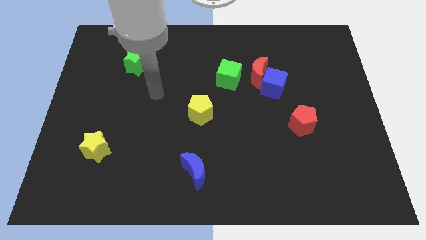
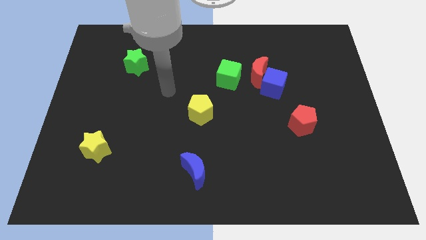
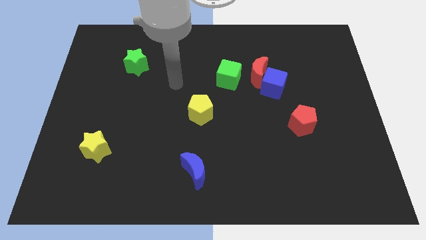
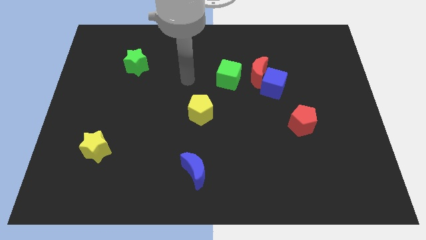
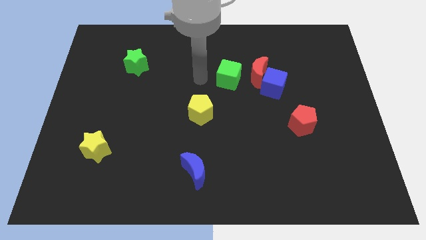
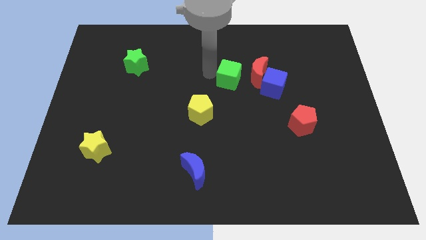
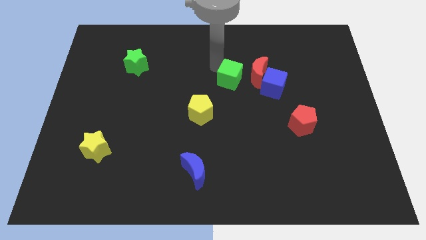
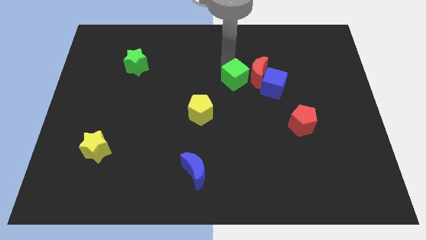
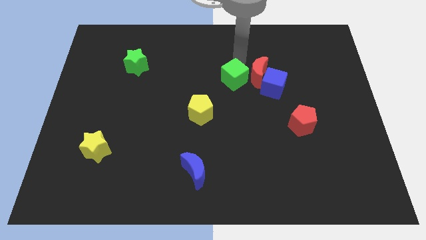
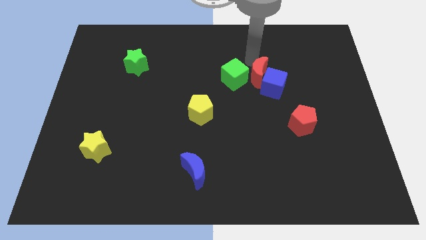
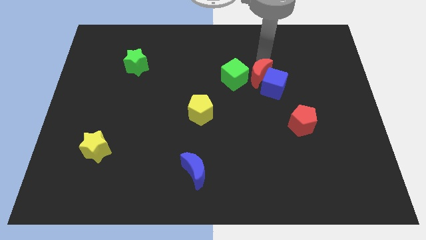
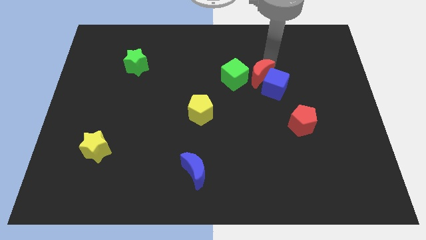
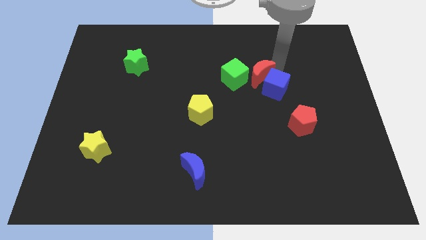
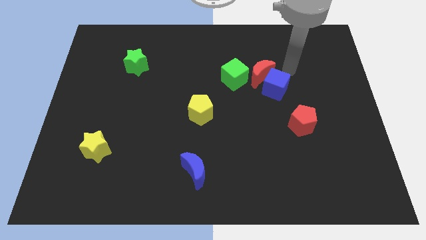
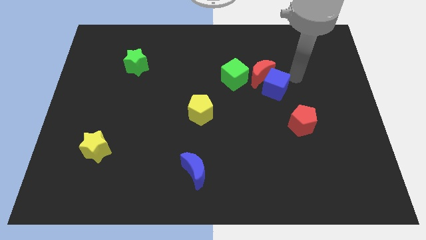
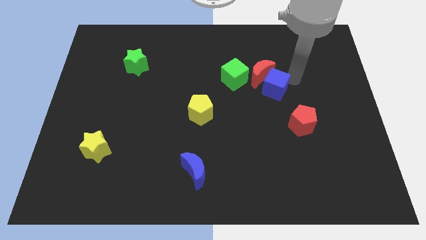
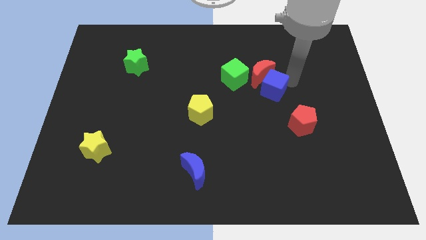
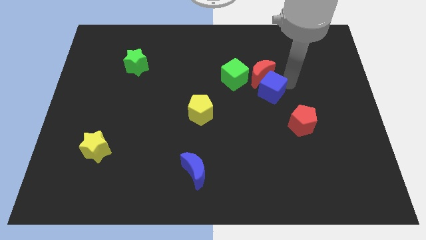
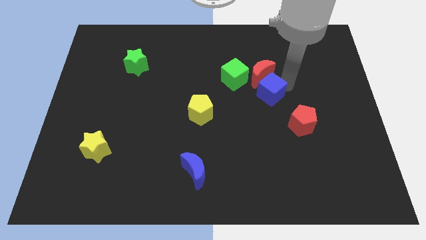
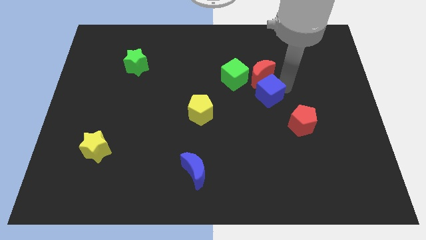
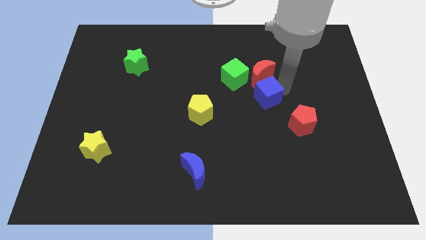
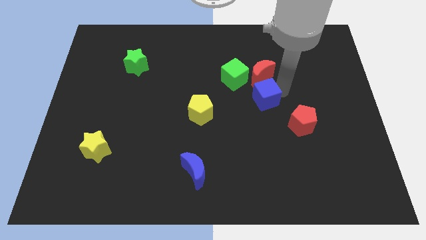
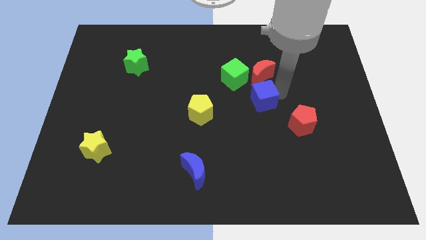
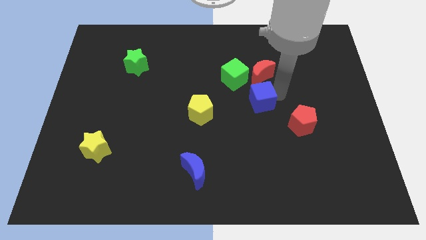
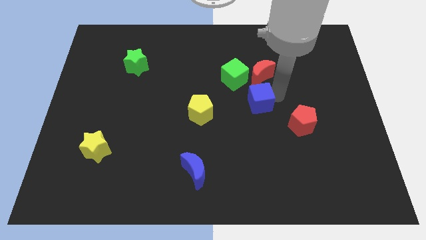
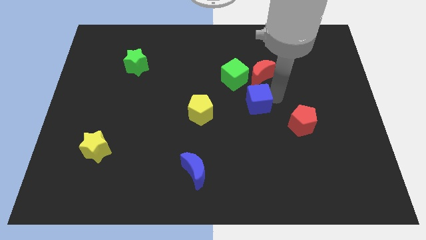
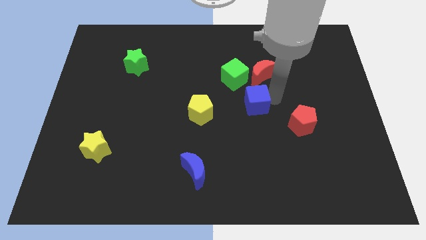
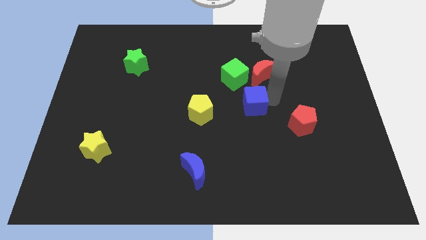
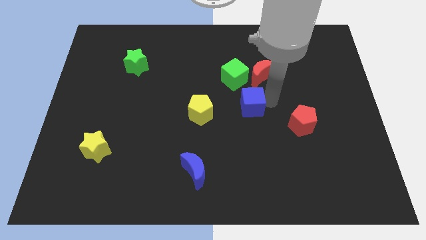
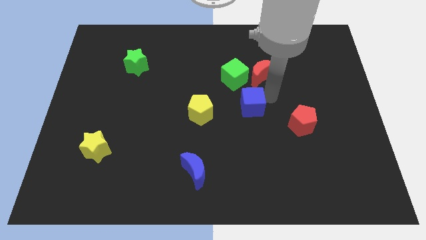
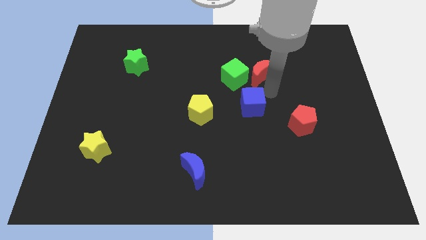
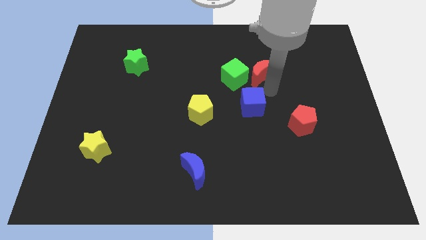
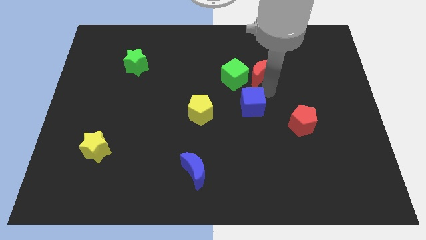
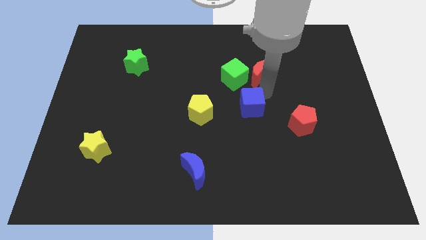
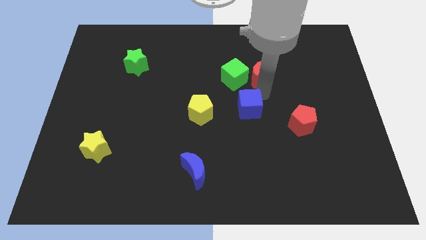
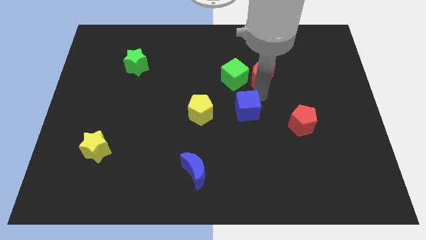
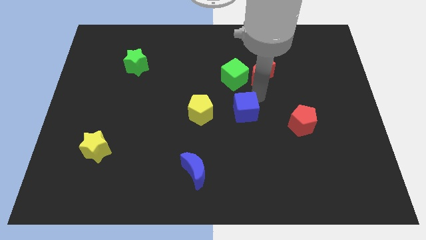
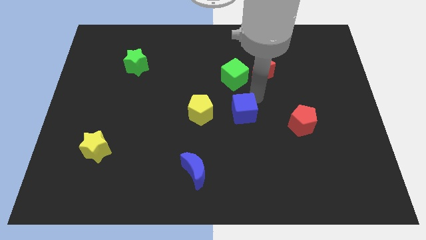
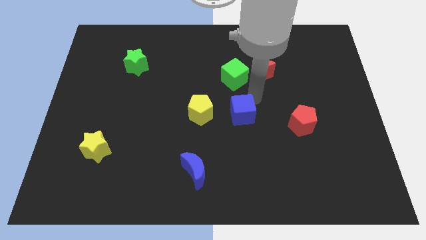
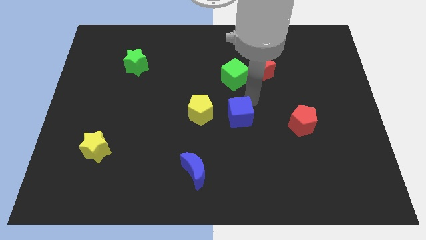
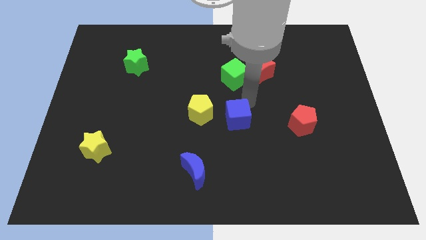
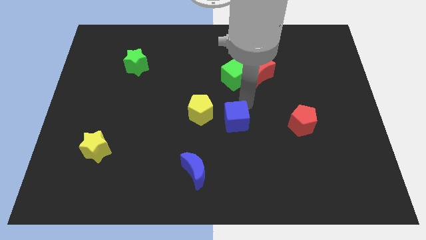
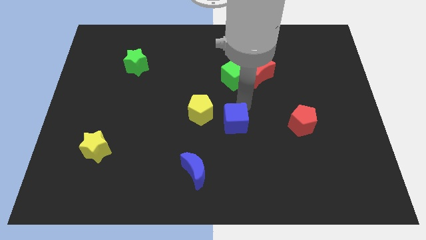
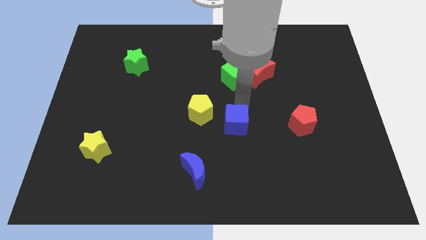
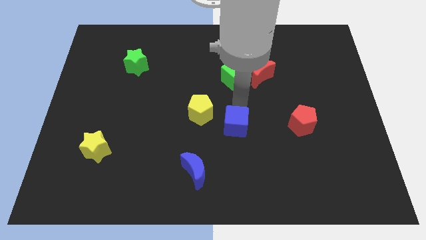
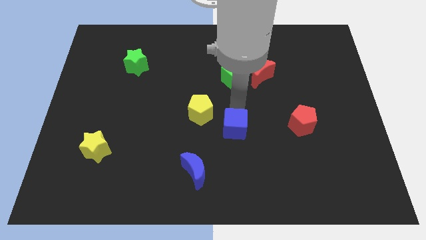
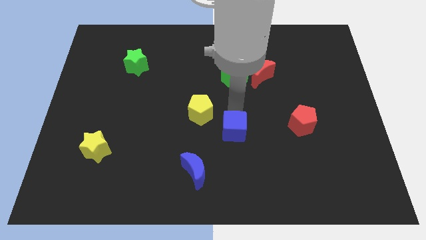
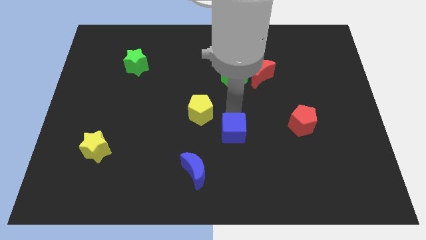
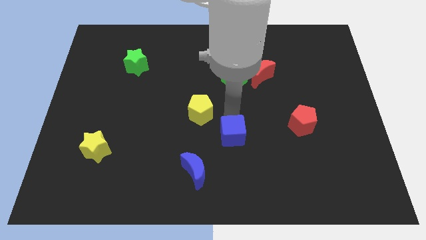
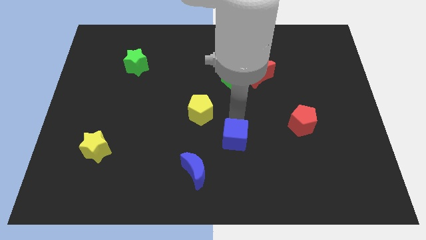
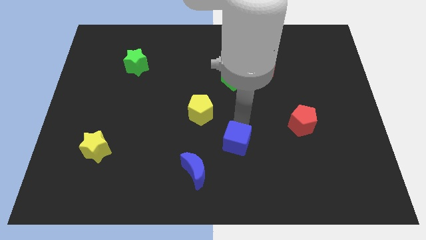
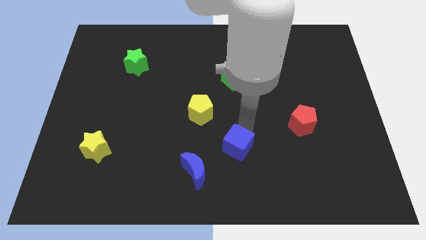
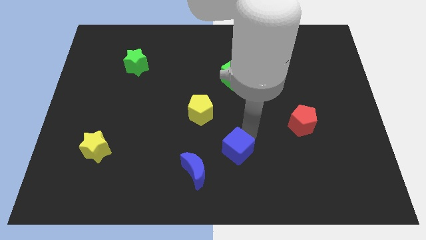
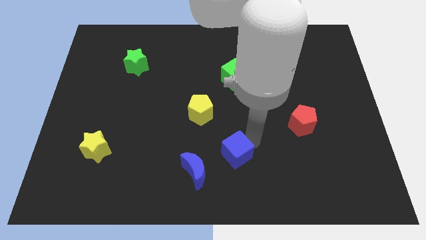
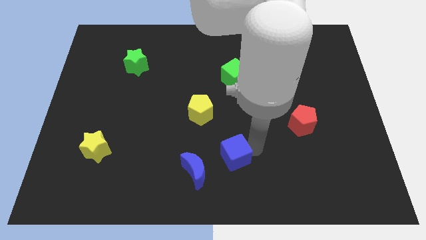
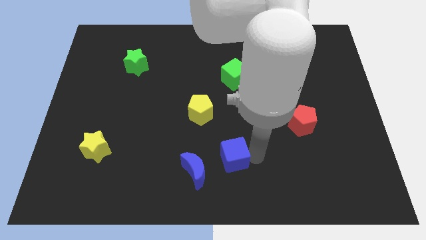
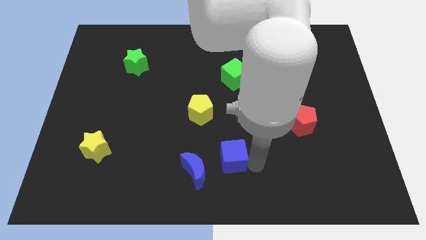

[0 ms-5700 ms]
push the blue cube downwards and to the left diagonally

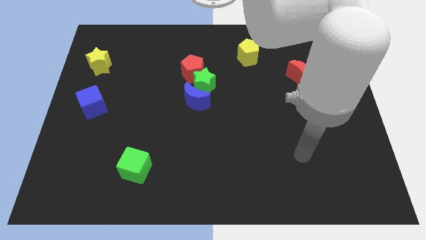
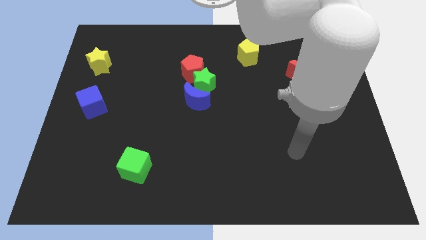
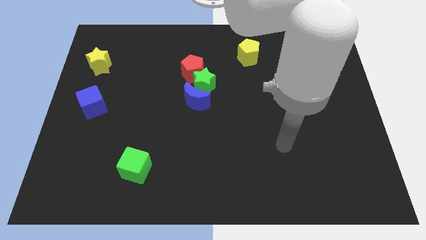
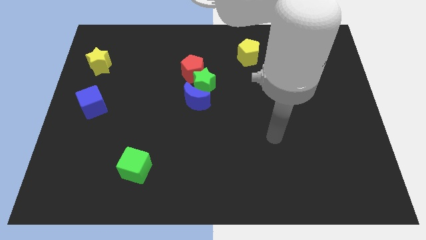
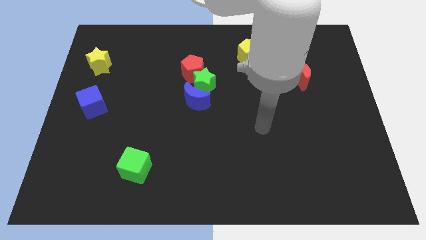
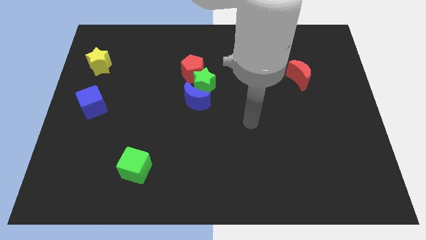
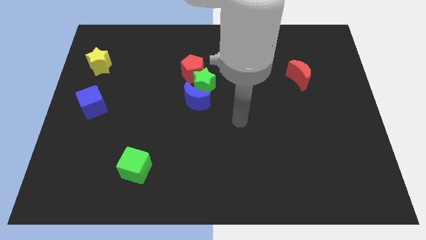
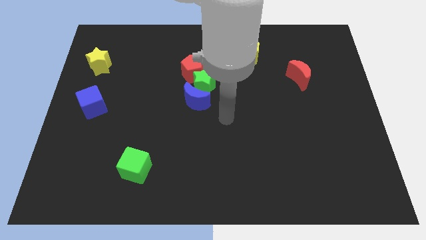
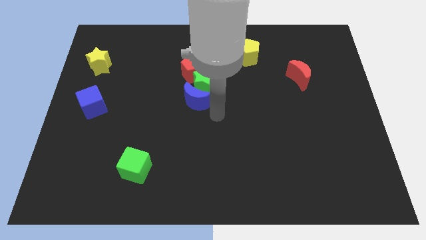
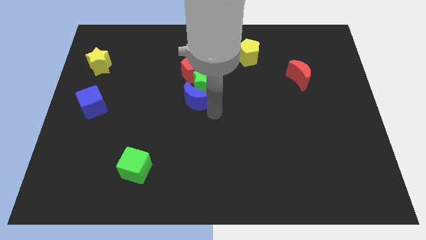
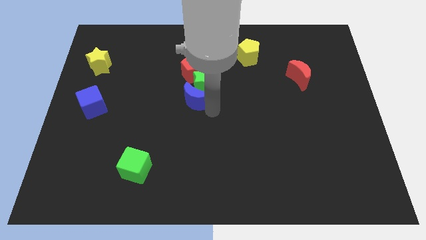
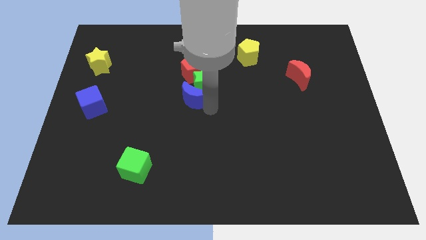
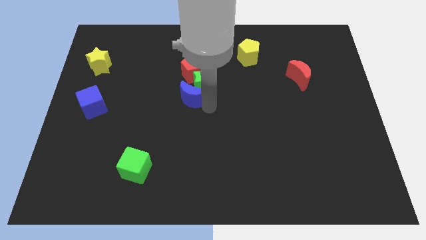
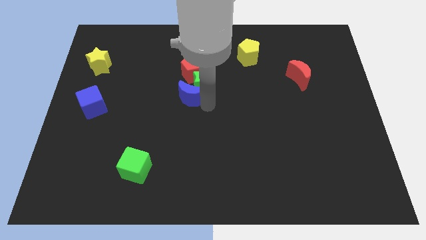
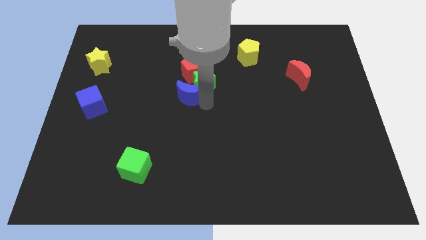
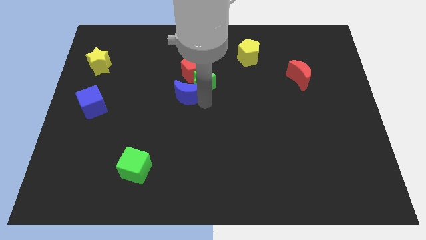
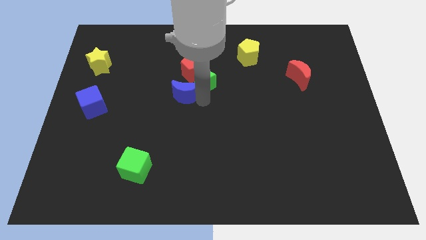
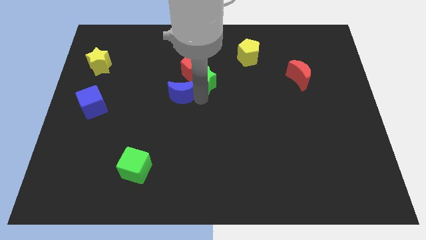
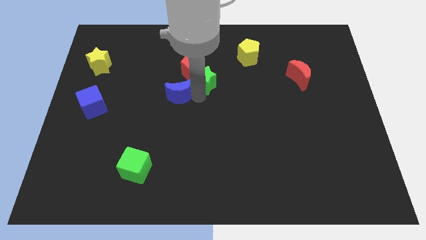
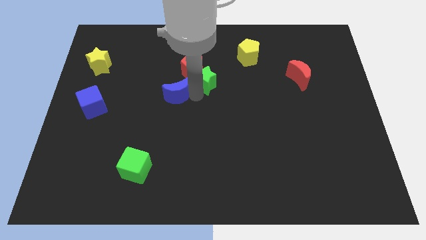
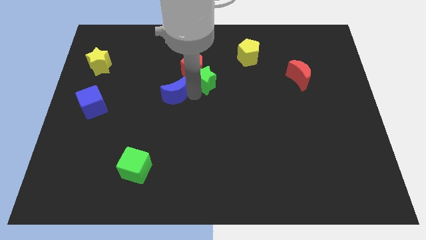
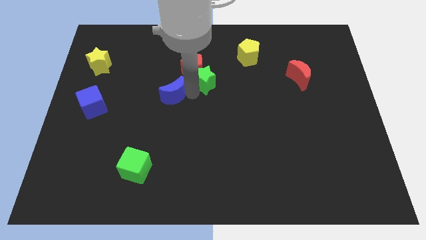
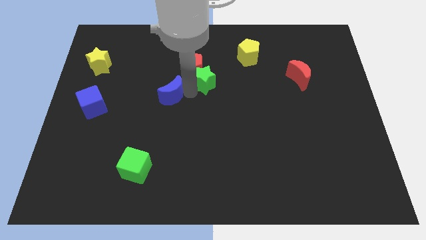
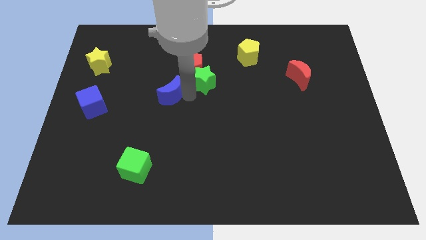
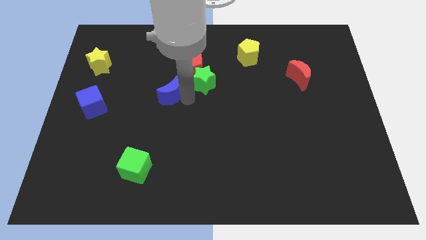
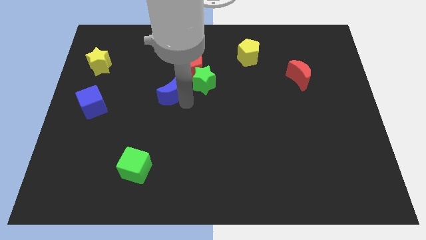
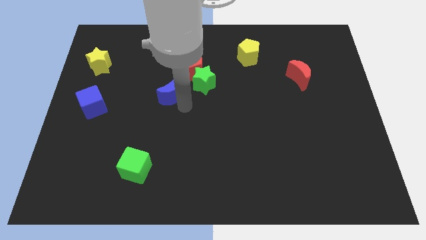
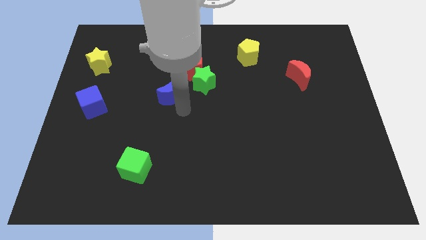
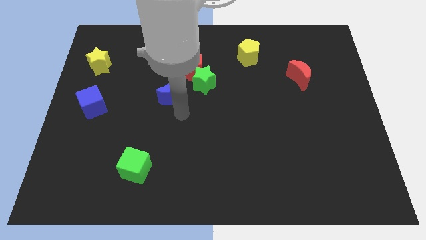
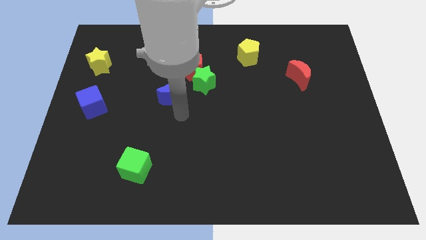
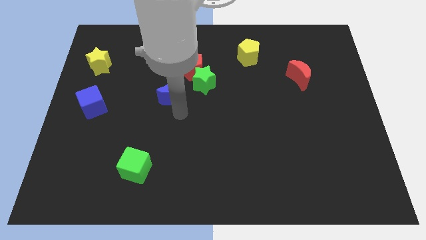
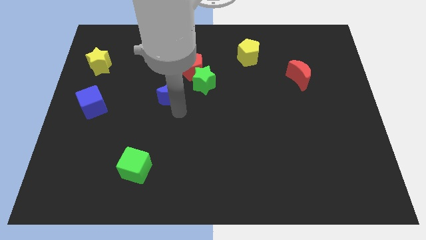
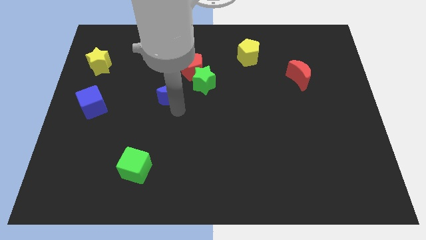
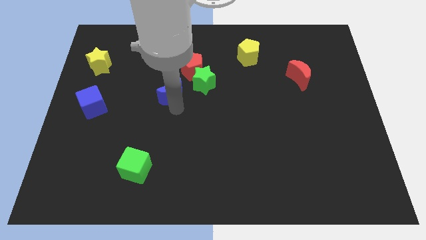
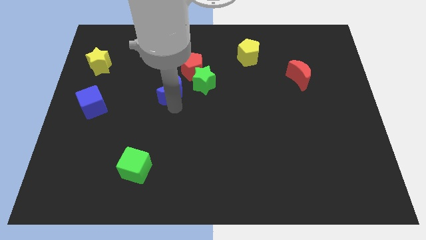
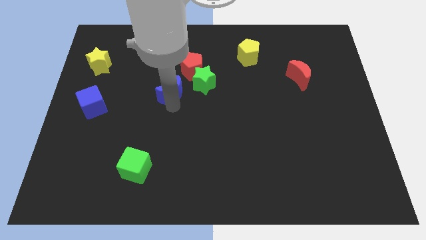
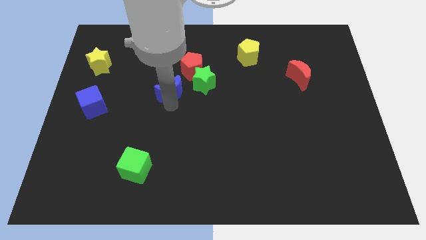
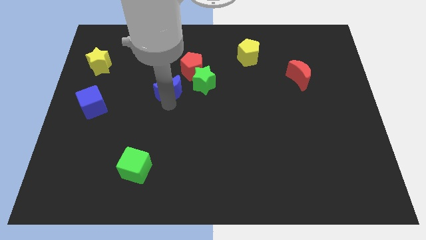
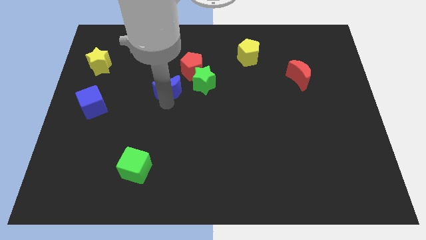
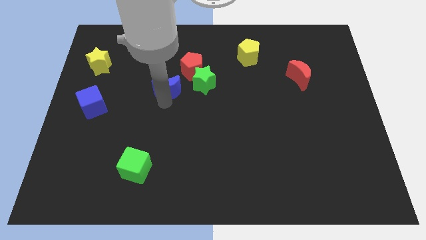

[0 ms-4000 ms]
move the blue moon somewhat diagonally upwards and to the left
